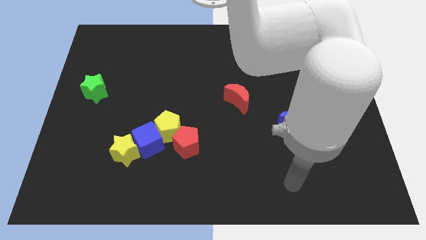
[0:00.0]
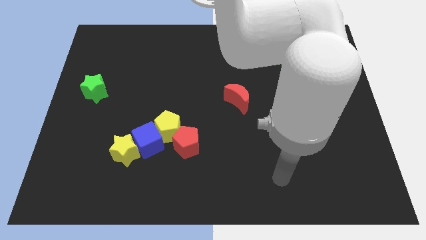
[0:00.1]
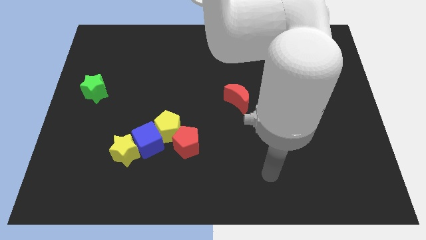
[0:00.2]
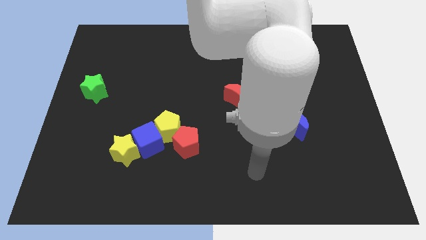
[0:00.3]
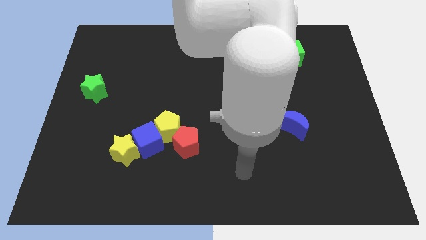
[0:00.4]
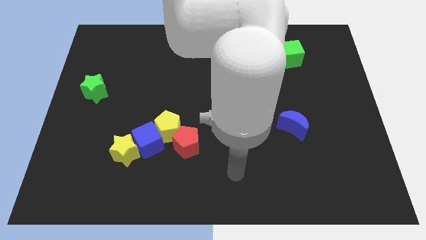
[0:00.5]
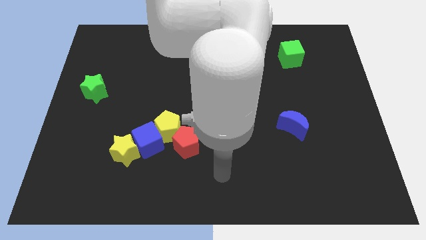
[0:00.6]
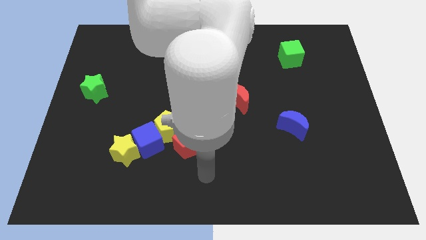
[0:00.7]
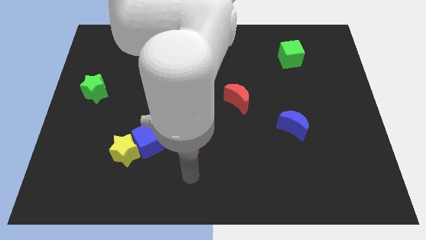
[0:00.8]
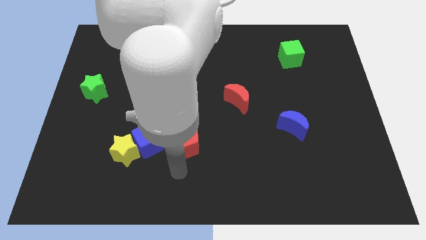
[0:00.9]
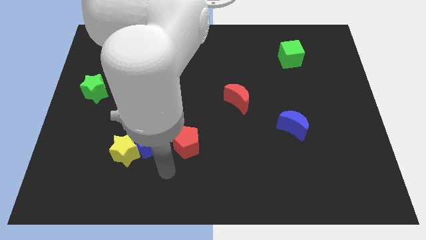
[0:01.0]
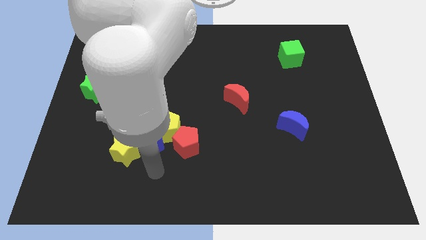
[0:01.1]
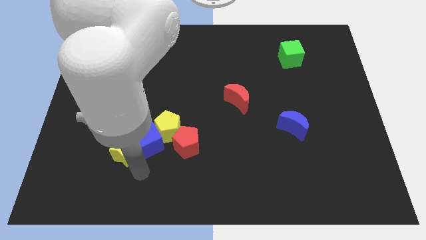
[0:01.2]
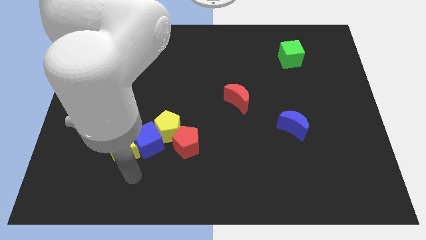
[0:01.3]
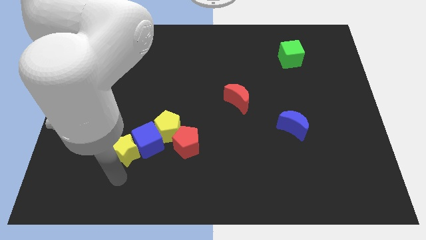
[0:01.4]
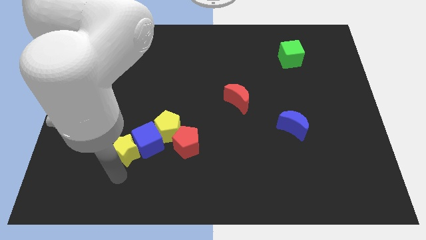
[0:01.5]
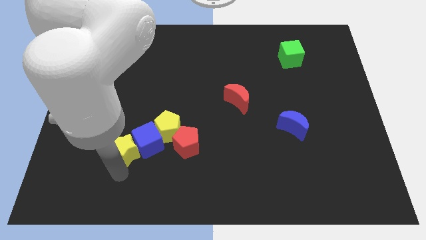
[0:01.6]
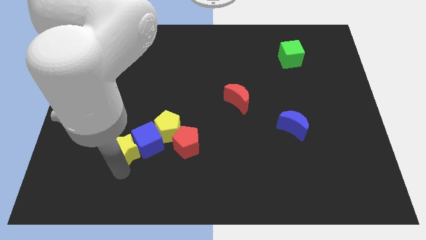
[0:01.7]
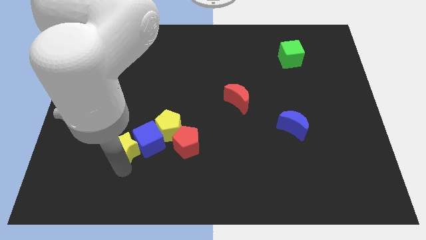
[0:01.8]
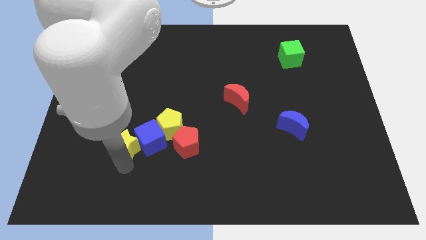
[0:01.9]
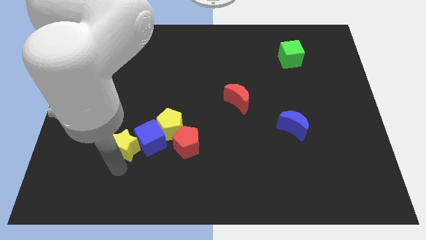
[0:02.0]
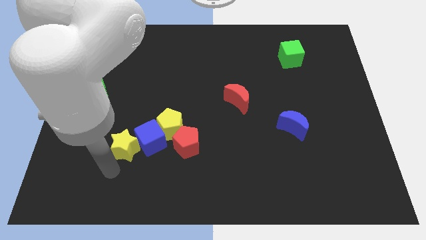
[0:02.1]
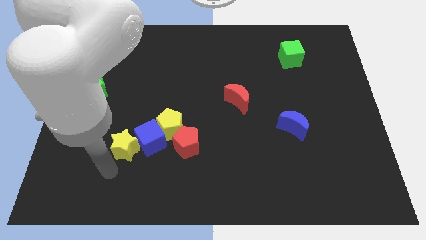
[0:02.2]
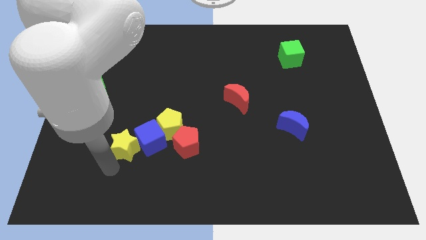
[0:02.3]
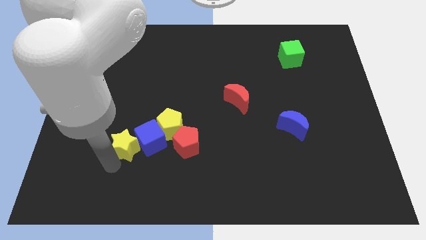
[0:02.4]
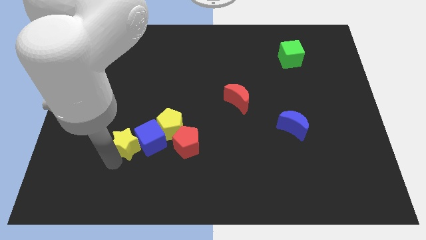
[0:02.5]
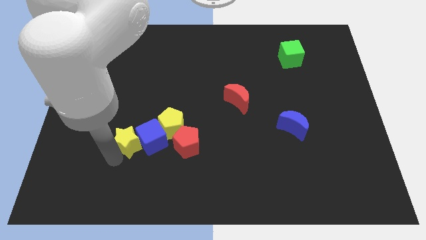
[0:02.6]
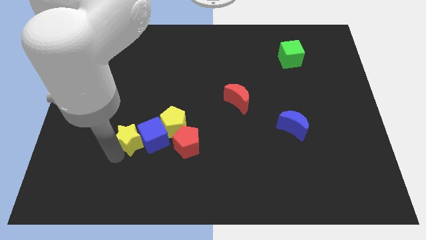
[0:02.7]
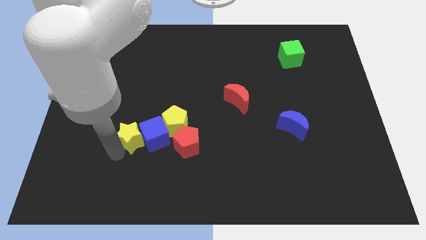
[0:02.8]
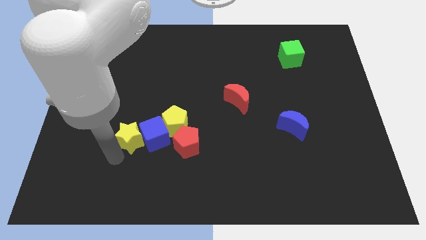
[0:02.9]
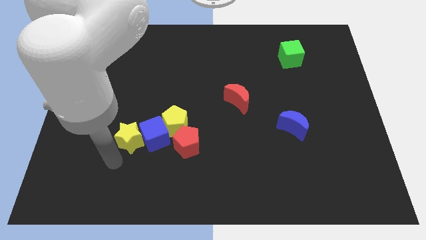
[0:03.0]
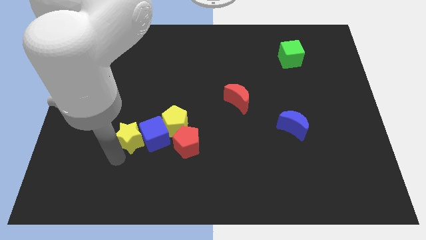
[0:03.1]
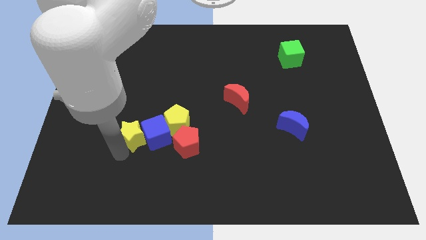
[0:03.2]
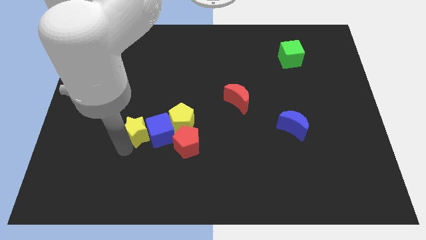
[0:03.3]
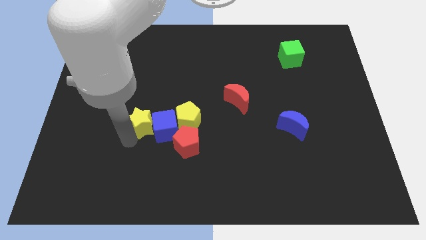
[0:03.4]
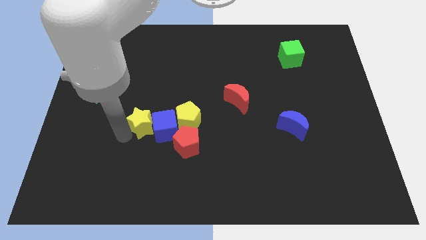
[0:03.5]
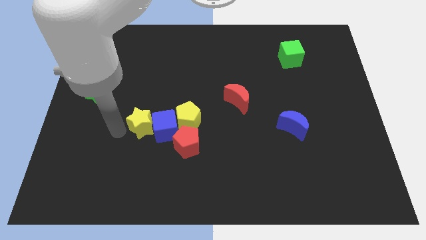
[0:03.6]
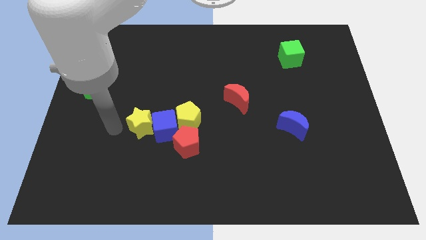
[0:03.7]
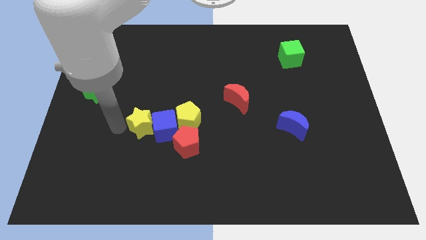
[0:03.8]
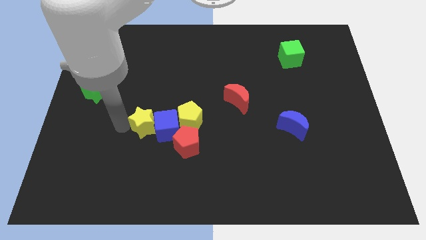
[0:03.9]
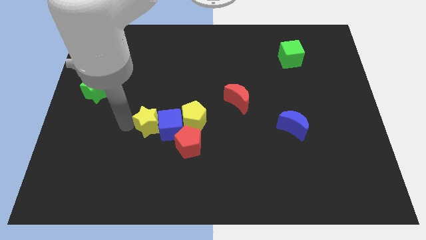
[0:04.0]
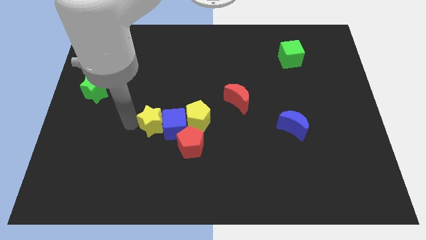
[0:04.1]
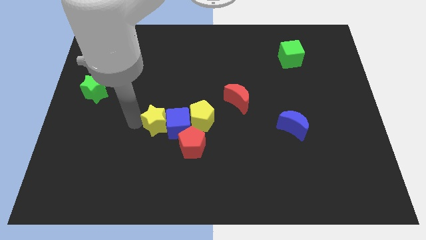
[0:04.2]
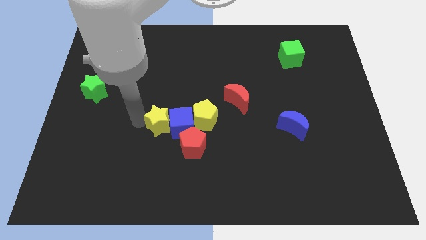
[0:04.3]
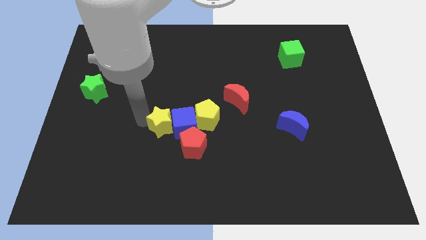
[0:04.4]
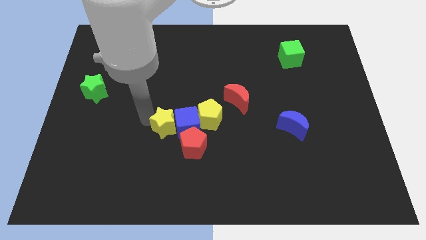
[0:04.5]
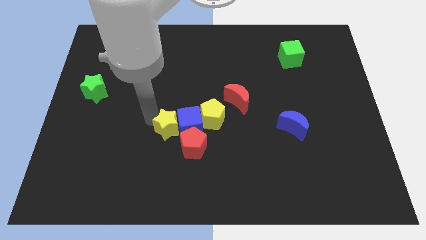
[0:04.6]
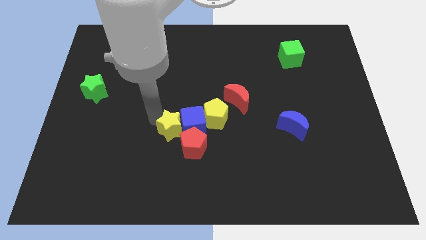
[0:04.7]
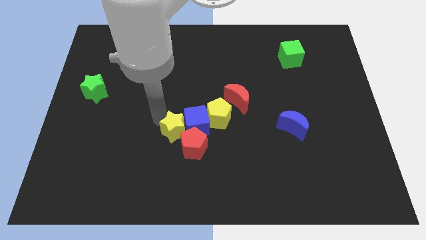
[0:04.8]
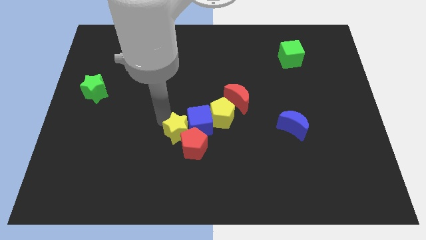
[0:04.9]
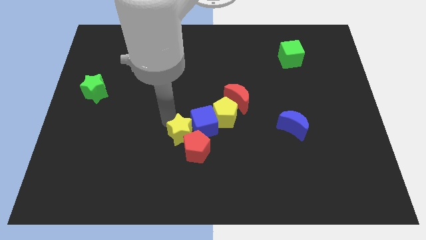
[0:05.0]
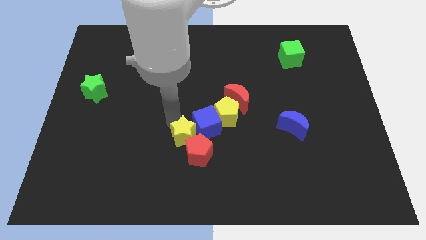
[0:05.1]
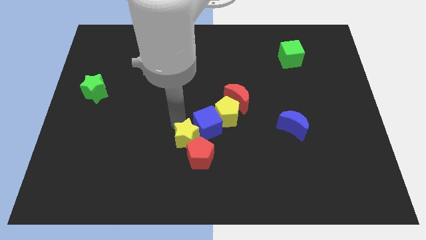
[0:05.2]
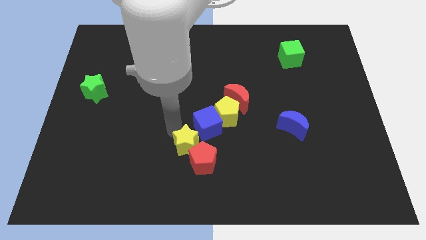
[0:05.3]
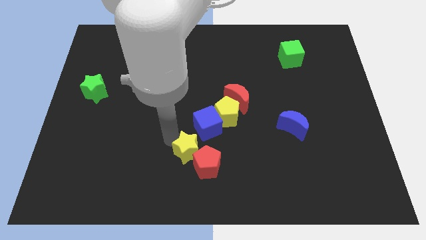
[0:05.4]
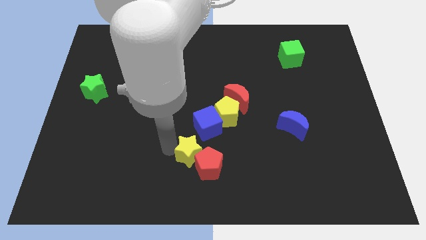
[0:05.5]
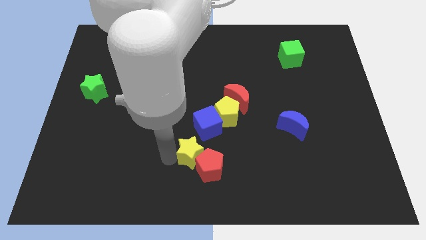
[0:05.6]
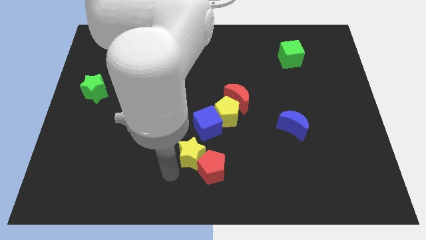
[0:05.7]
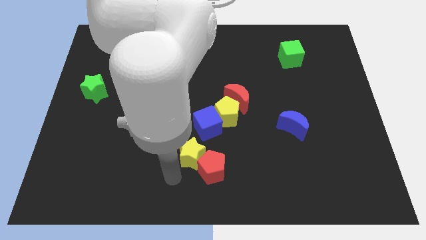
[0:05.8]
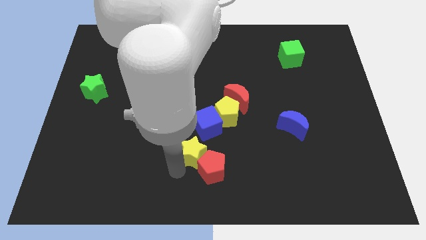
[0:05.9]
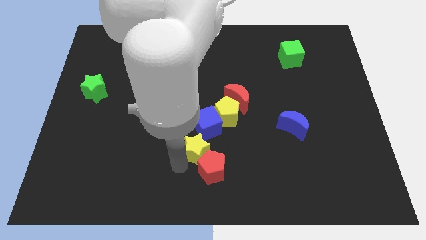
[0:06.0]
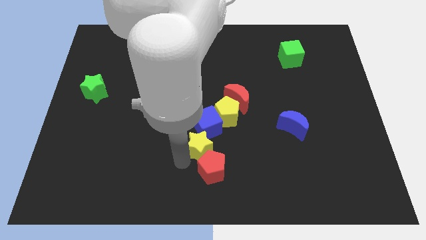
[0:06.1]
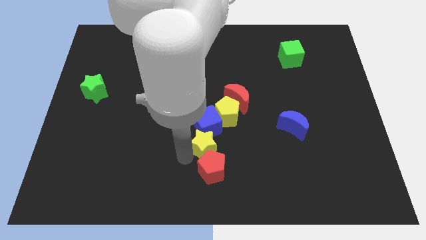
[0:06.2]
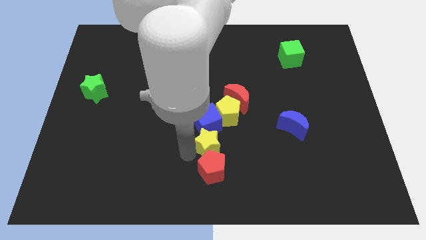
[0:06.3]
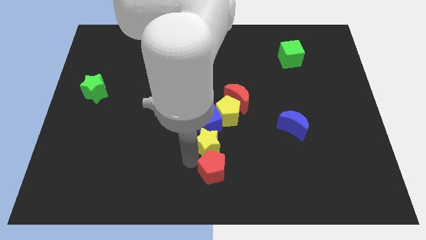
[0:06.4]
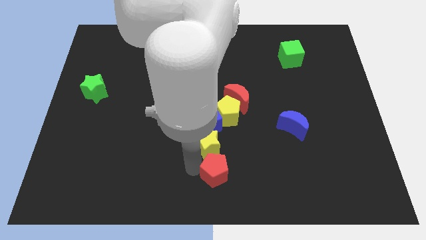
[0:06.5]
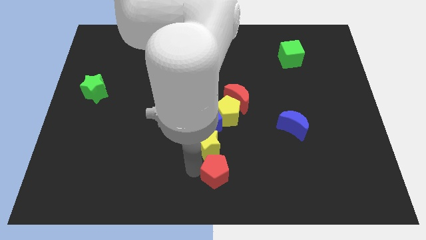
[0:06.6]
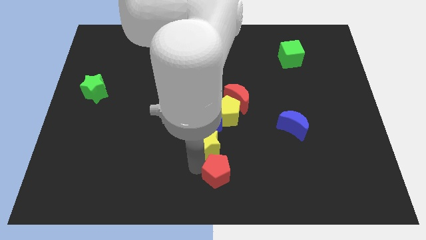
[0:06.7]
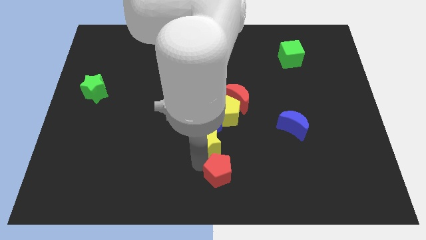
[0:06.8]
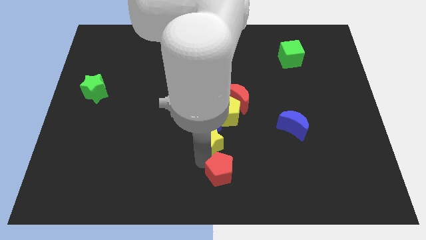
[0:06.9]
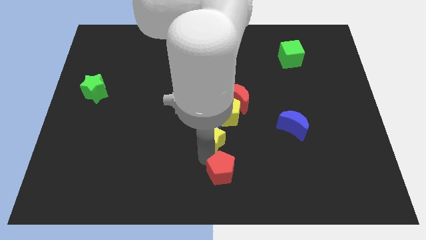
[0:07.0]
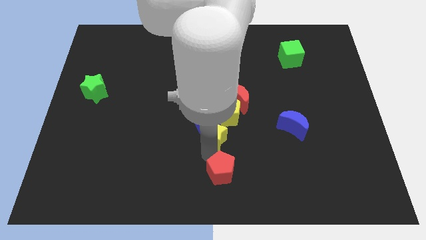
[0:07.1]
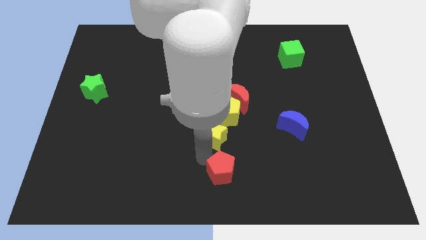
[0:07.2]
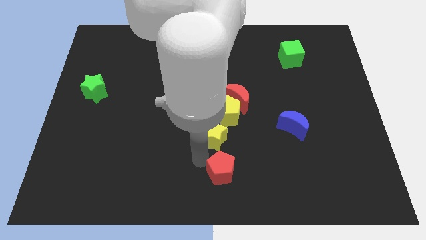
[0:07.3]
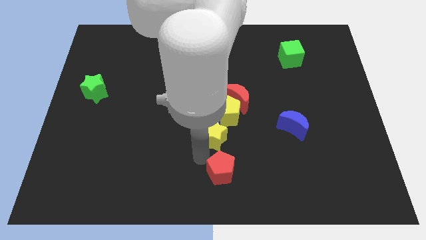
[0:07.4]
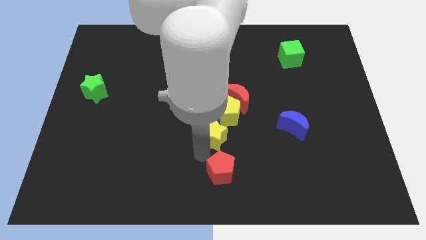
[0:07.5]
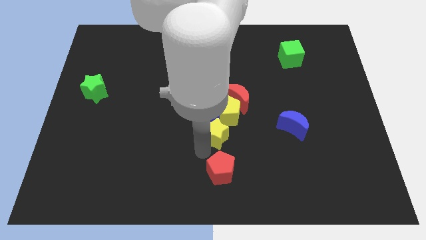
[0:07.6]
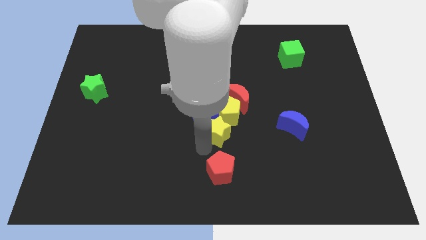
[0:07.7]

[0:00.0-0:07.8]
slide the yellow star next to the yellow pentagon
